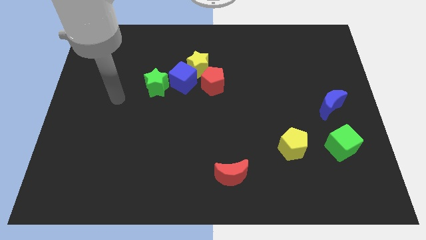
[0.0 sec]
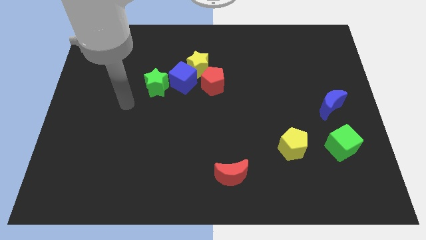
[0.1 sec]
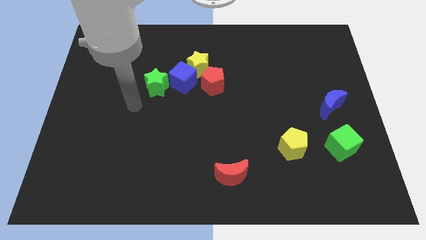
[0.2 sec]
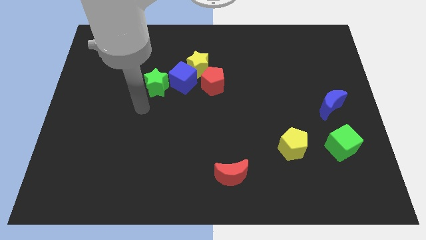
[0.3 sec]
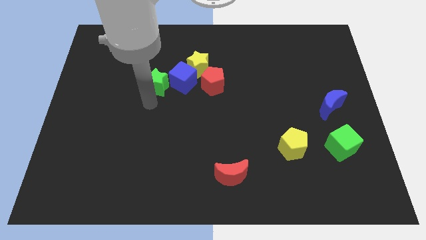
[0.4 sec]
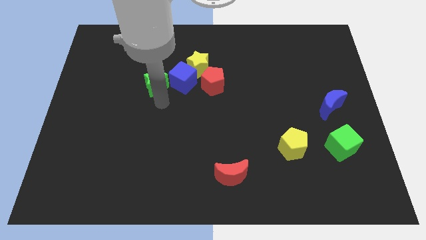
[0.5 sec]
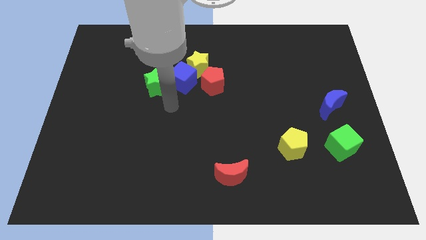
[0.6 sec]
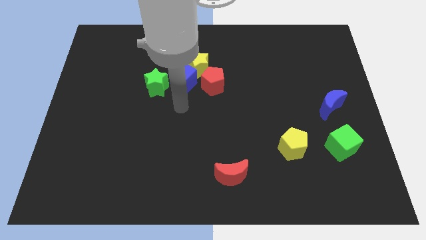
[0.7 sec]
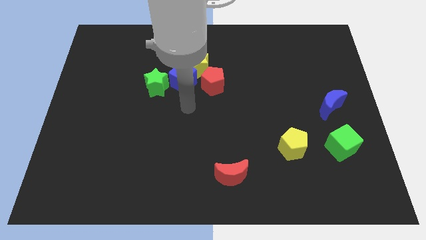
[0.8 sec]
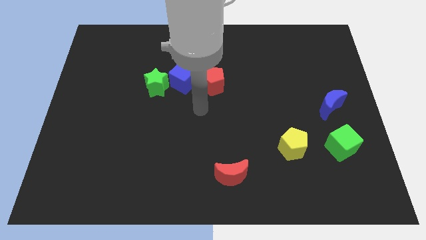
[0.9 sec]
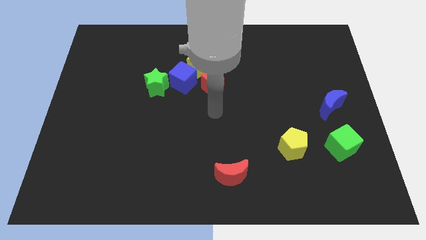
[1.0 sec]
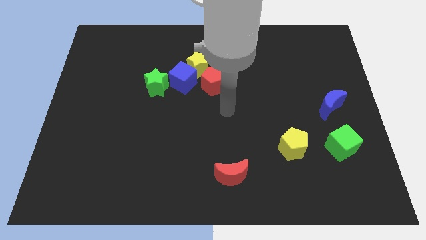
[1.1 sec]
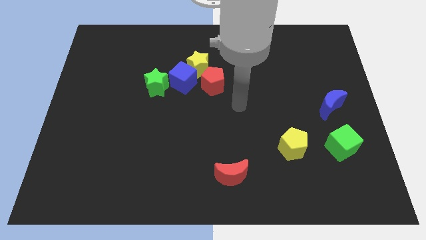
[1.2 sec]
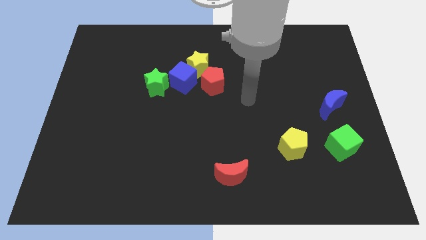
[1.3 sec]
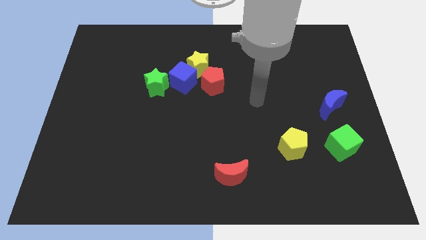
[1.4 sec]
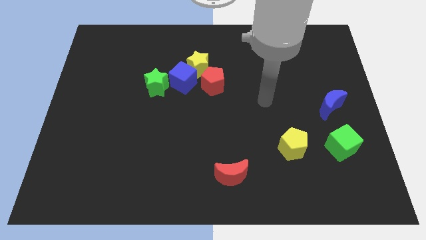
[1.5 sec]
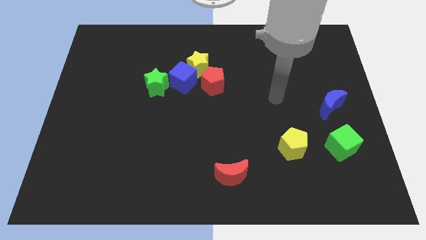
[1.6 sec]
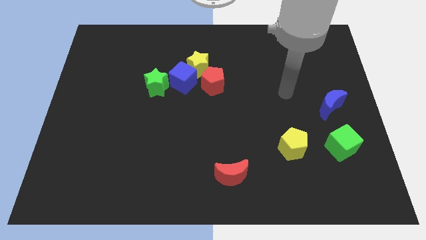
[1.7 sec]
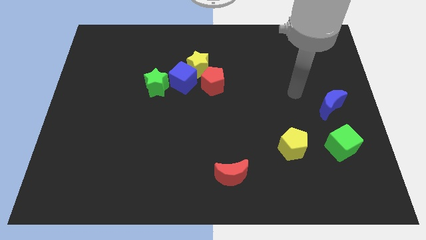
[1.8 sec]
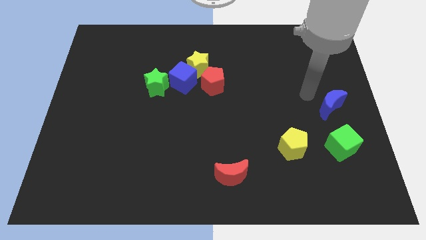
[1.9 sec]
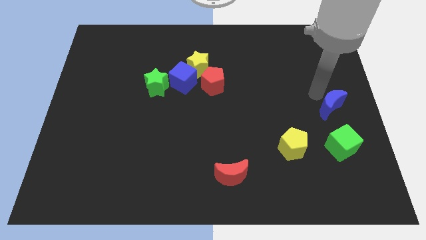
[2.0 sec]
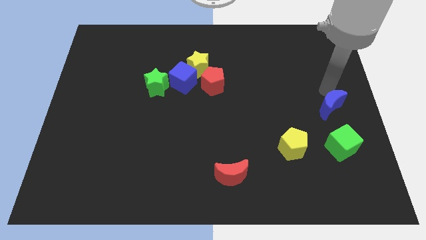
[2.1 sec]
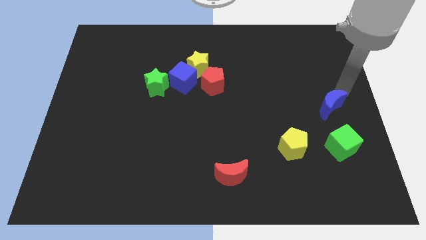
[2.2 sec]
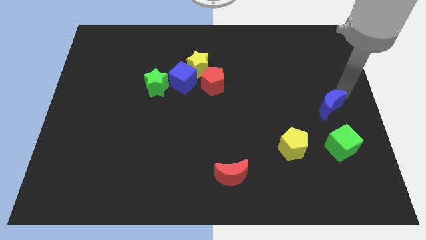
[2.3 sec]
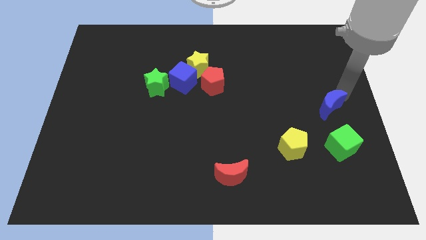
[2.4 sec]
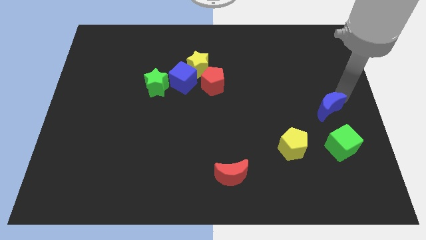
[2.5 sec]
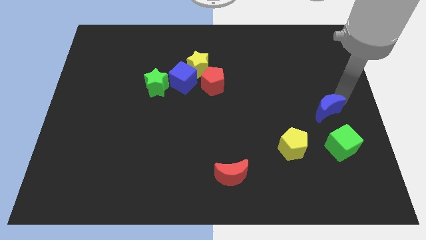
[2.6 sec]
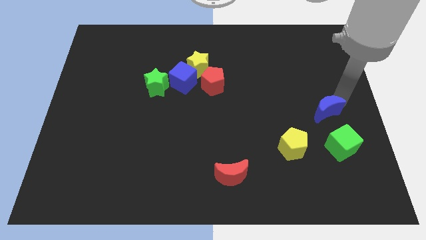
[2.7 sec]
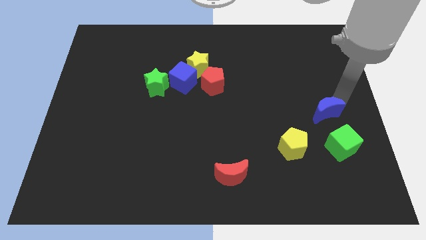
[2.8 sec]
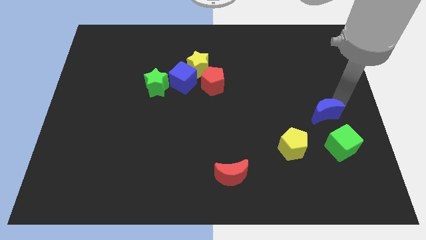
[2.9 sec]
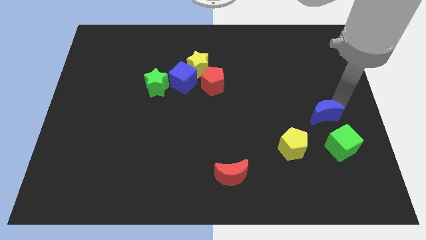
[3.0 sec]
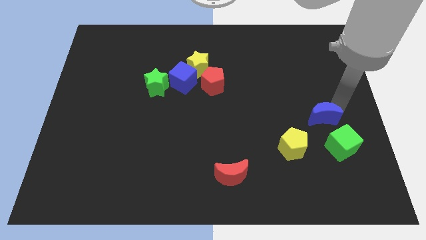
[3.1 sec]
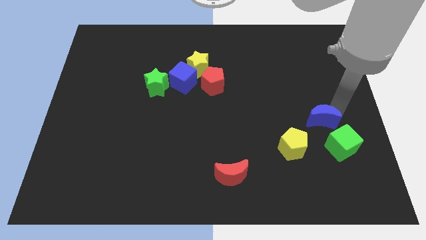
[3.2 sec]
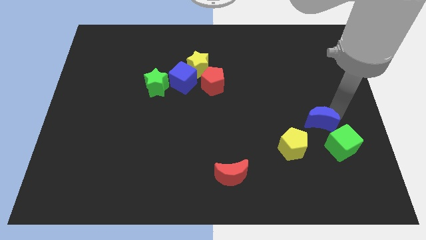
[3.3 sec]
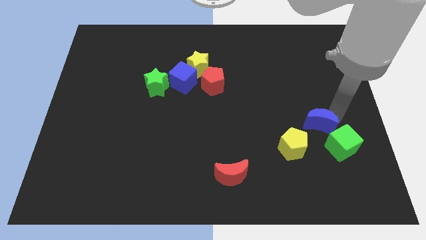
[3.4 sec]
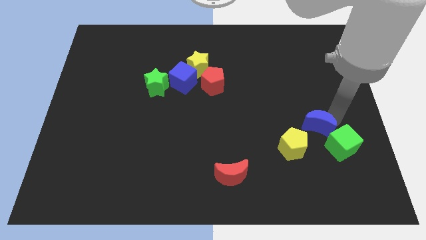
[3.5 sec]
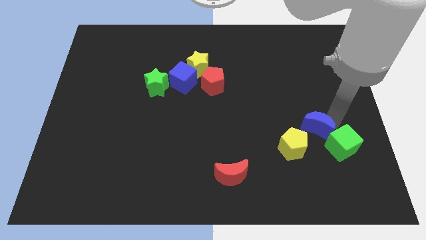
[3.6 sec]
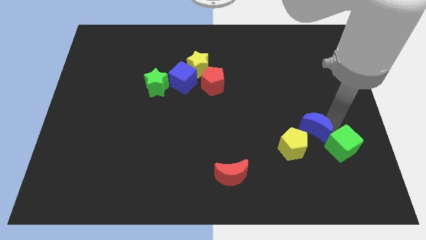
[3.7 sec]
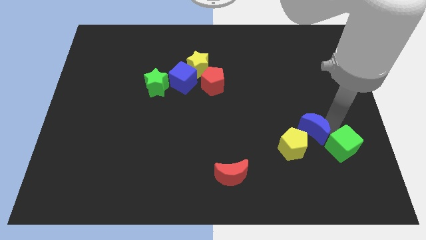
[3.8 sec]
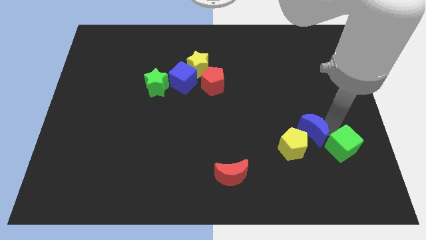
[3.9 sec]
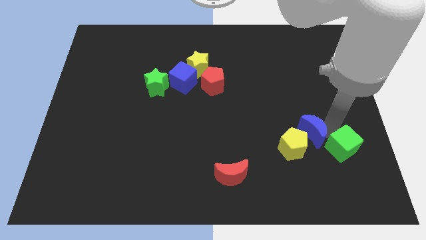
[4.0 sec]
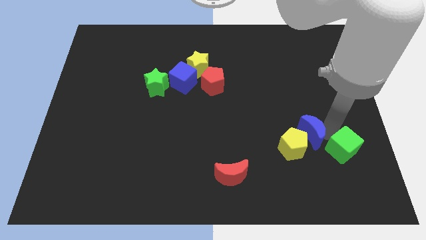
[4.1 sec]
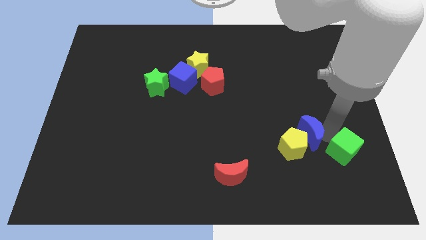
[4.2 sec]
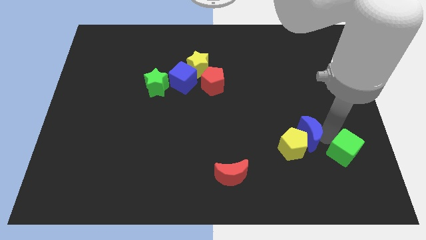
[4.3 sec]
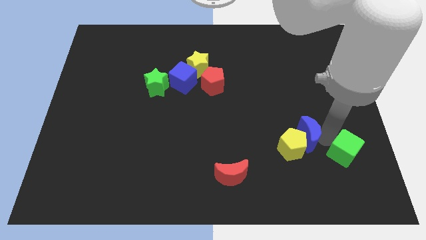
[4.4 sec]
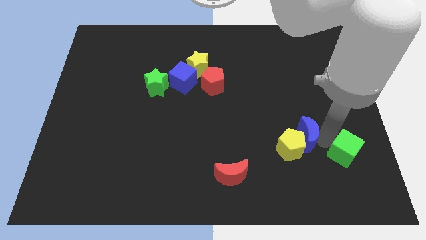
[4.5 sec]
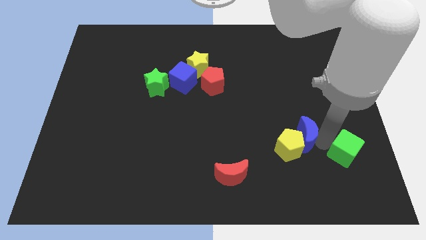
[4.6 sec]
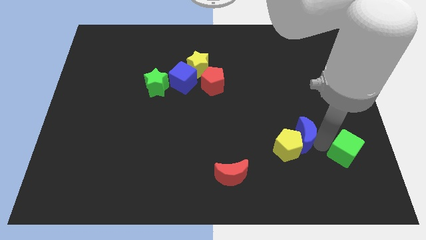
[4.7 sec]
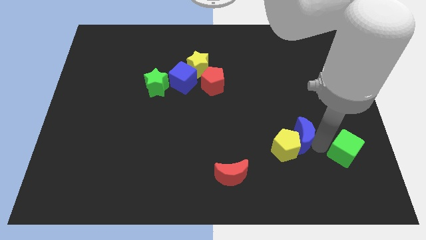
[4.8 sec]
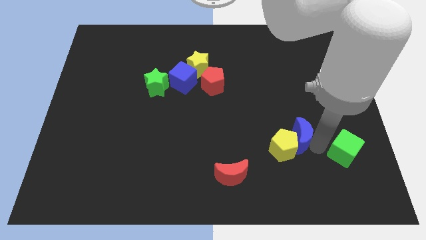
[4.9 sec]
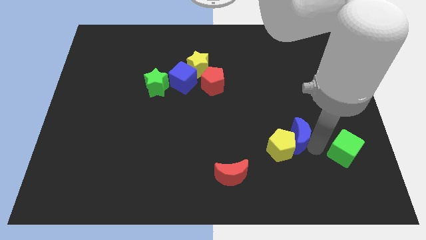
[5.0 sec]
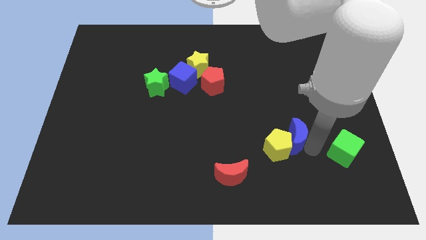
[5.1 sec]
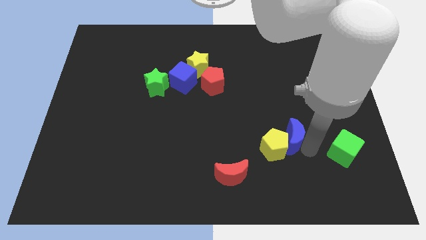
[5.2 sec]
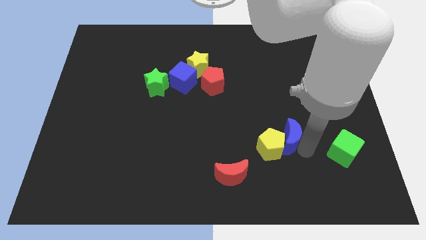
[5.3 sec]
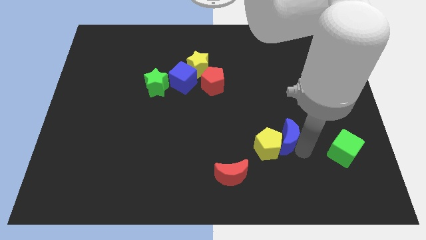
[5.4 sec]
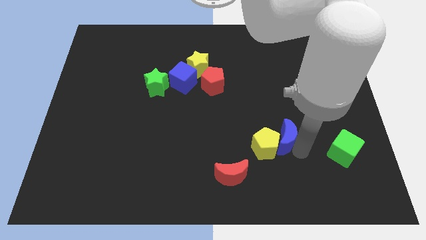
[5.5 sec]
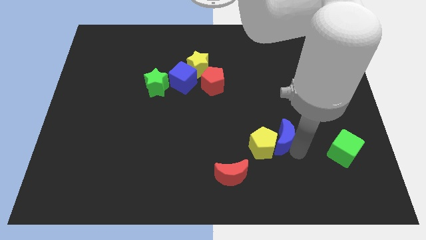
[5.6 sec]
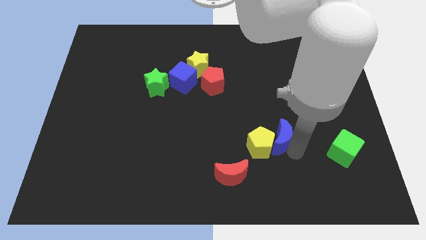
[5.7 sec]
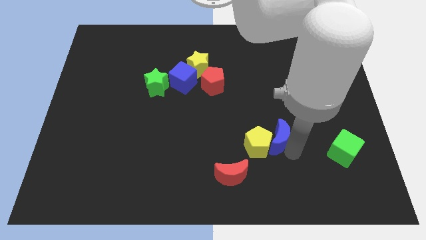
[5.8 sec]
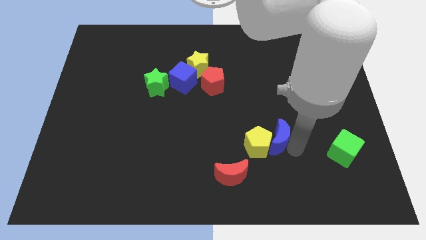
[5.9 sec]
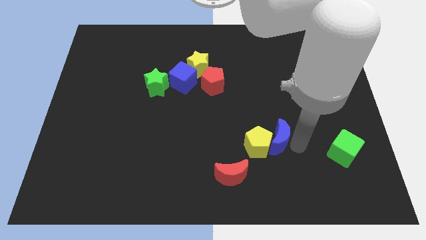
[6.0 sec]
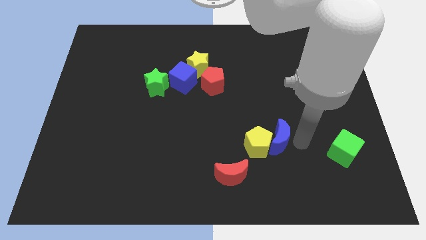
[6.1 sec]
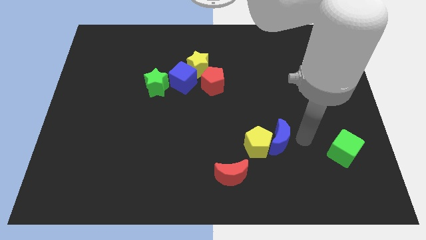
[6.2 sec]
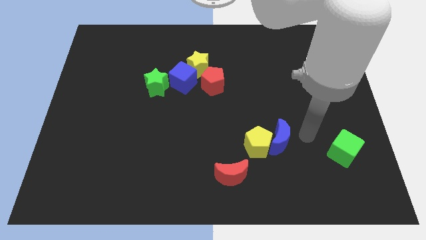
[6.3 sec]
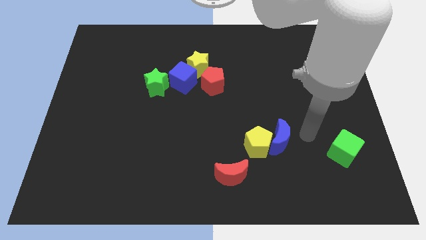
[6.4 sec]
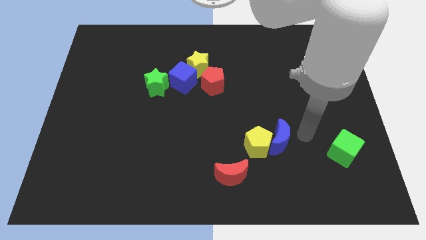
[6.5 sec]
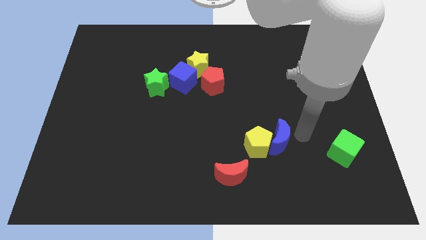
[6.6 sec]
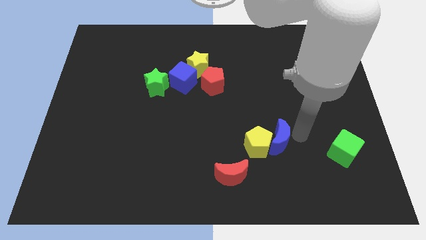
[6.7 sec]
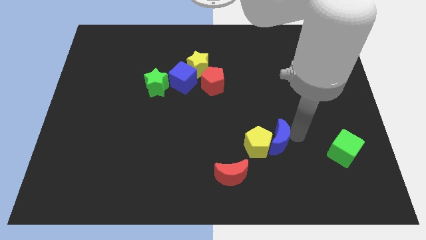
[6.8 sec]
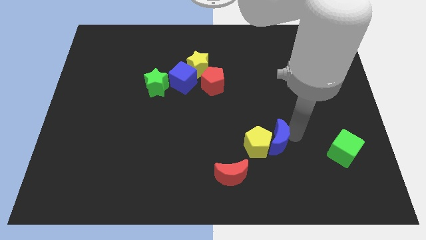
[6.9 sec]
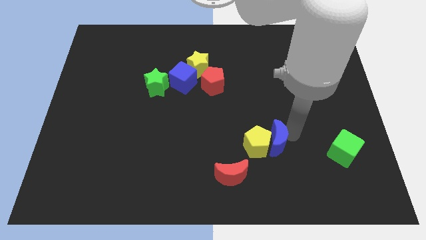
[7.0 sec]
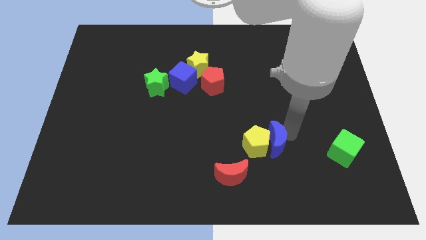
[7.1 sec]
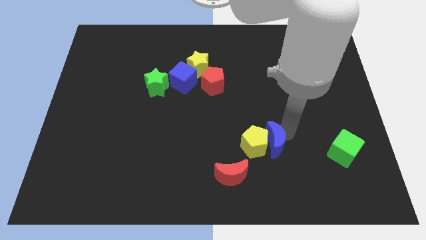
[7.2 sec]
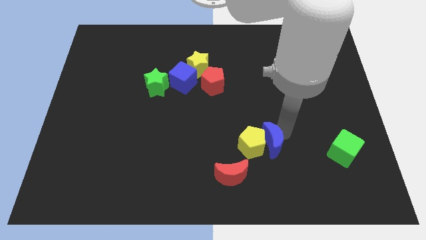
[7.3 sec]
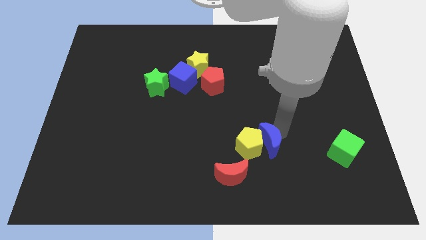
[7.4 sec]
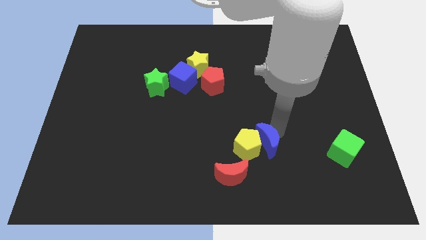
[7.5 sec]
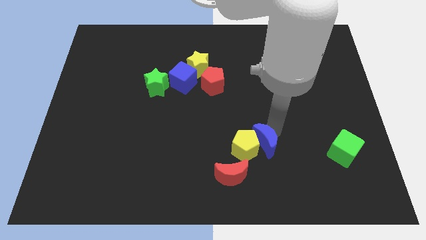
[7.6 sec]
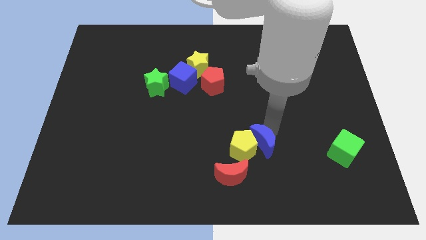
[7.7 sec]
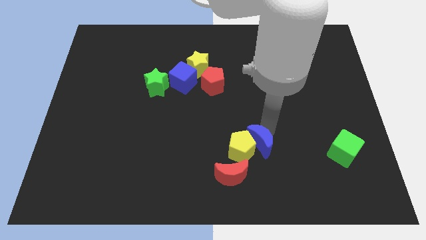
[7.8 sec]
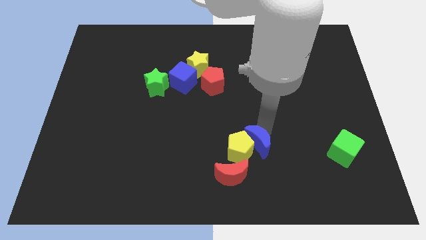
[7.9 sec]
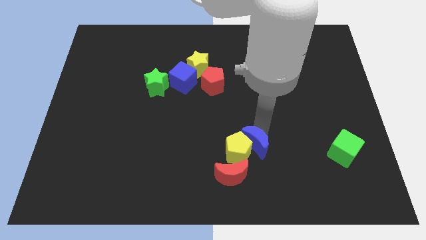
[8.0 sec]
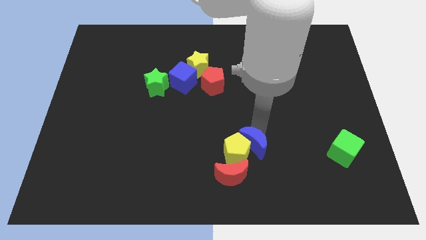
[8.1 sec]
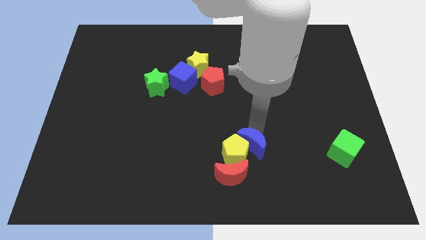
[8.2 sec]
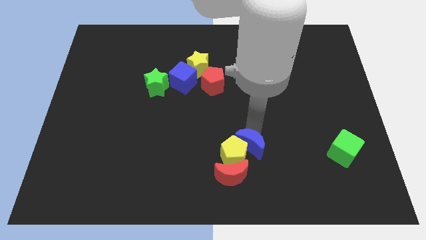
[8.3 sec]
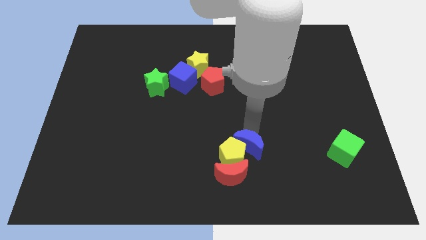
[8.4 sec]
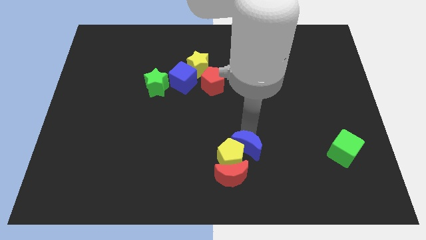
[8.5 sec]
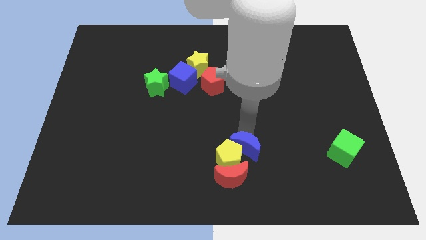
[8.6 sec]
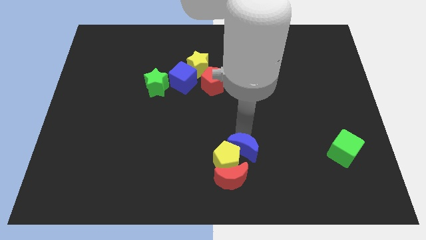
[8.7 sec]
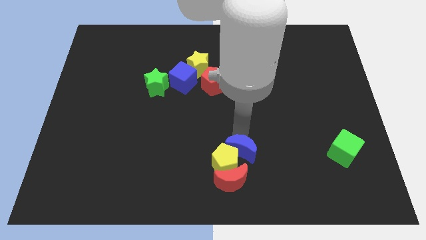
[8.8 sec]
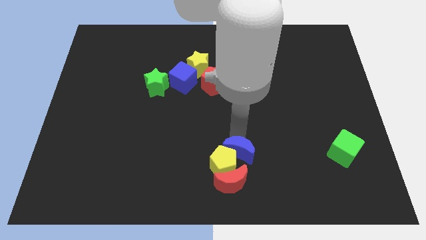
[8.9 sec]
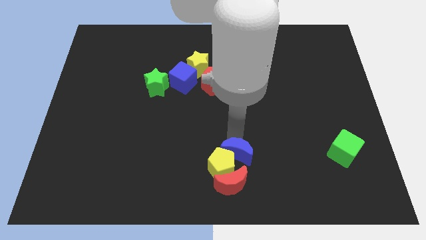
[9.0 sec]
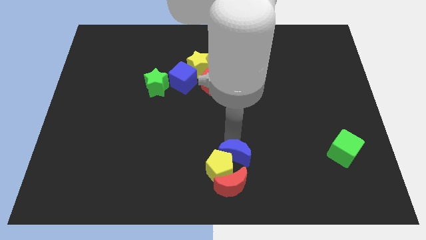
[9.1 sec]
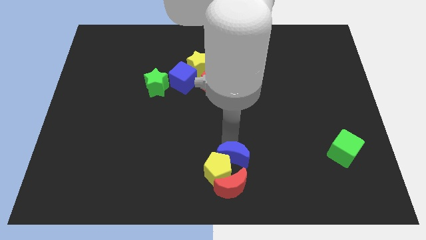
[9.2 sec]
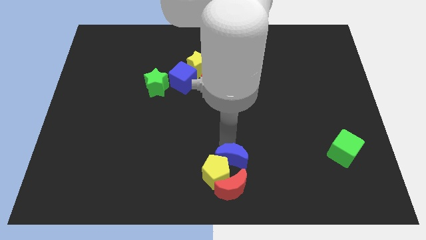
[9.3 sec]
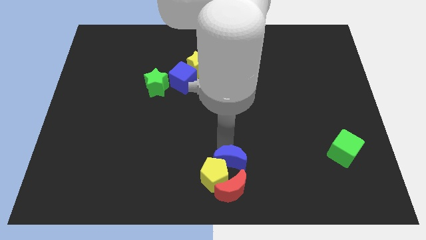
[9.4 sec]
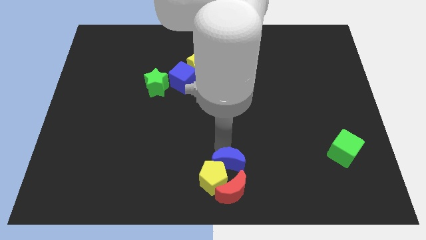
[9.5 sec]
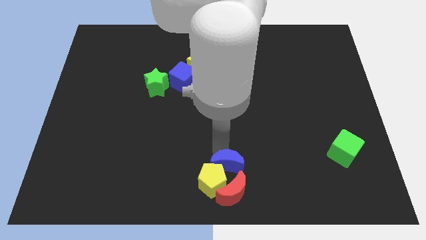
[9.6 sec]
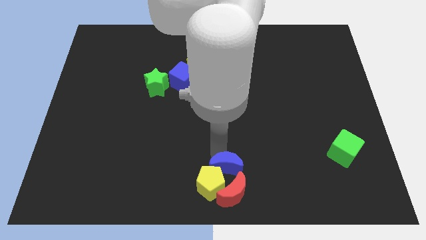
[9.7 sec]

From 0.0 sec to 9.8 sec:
push the blue moon close to the red moon
